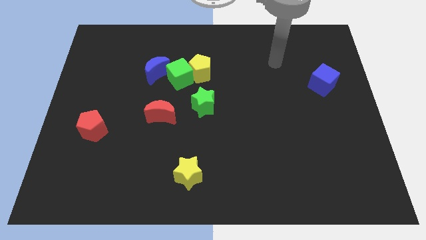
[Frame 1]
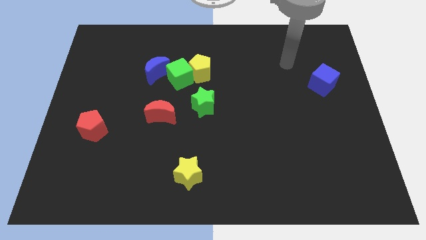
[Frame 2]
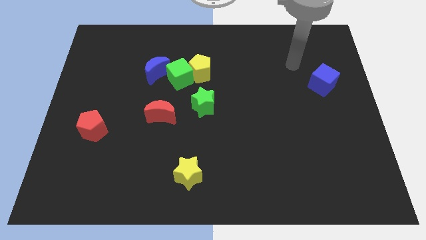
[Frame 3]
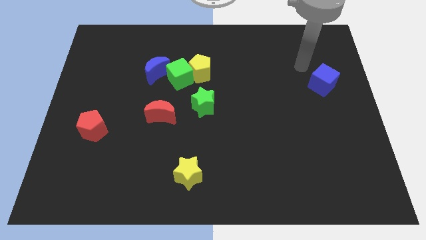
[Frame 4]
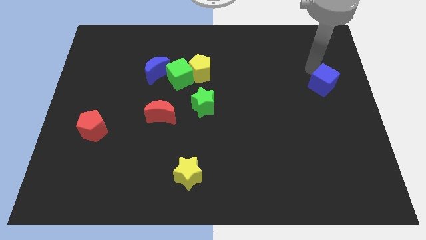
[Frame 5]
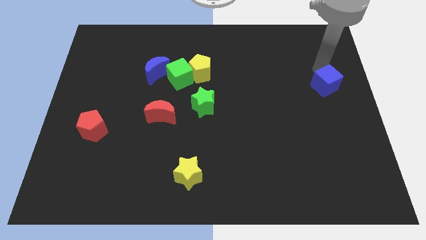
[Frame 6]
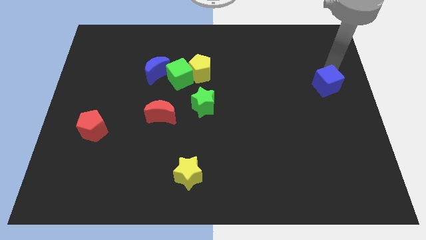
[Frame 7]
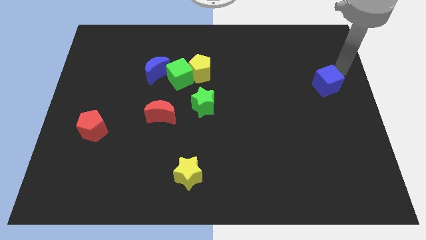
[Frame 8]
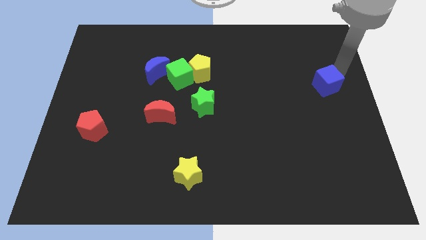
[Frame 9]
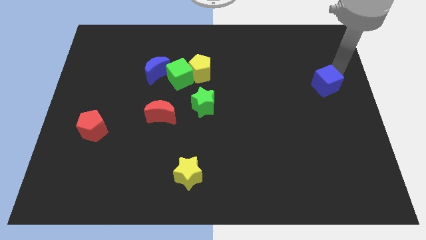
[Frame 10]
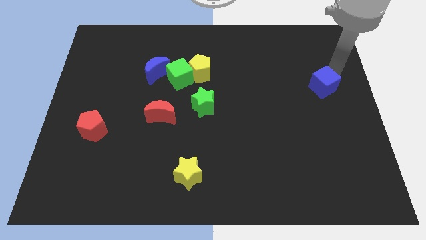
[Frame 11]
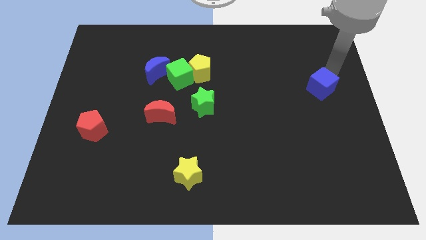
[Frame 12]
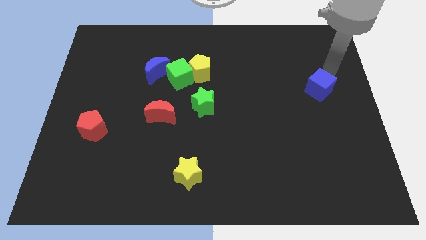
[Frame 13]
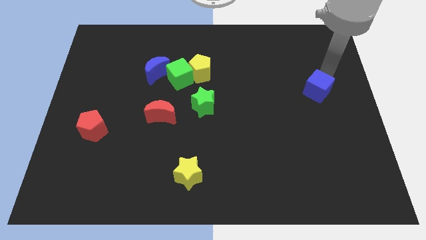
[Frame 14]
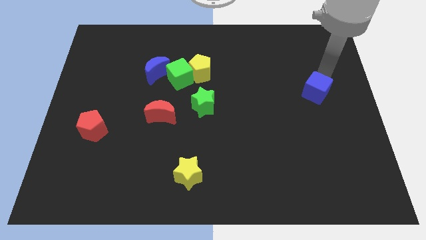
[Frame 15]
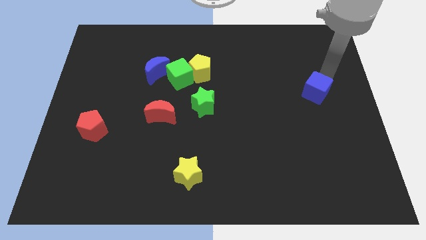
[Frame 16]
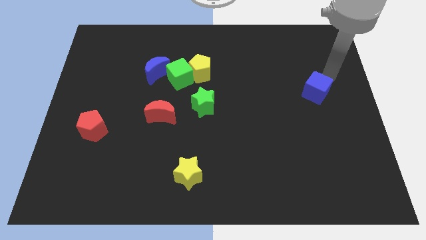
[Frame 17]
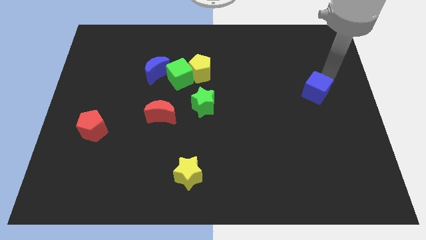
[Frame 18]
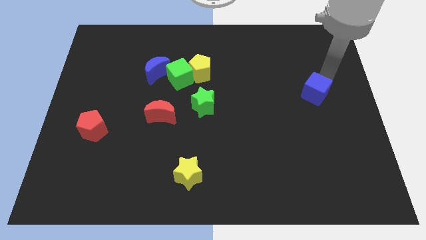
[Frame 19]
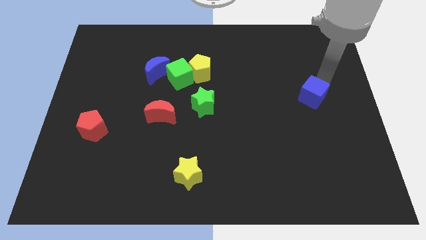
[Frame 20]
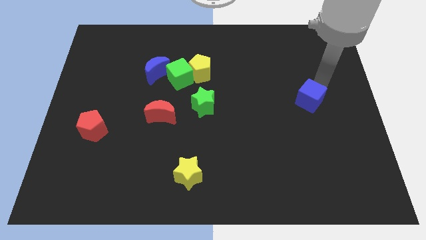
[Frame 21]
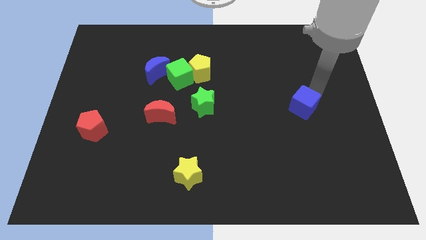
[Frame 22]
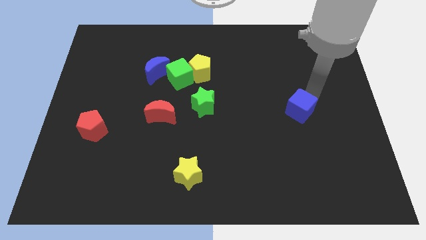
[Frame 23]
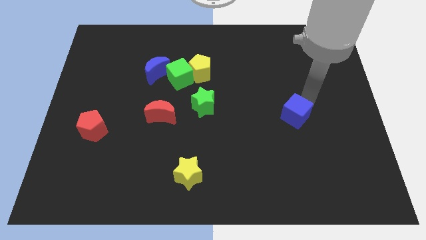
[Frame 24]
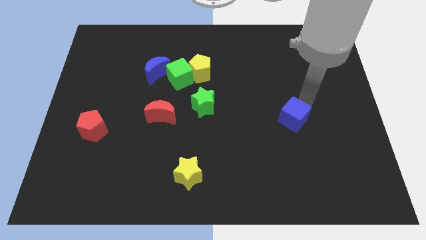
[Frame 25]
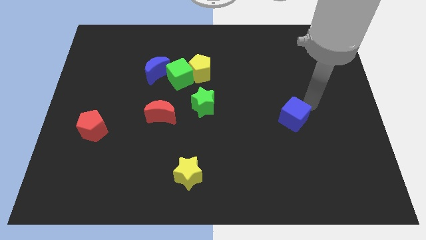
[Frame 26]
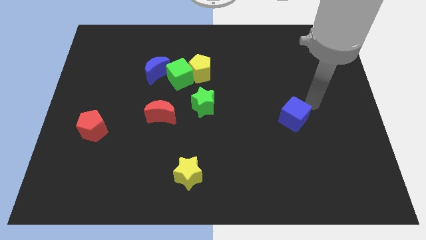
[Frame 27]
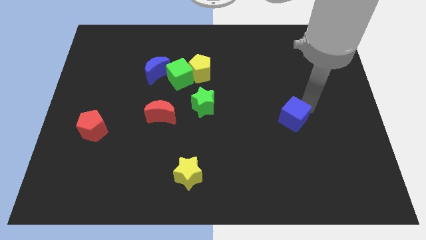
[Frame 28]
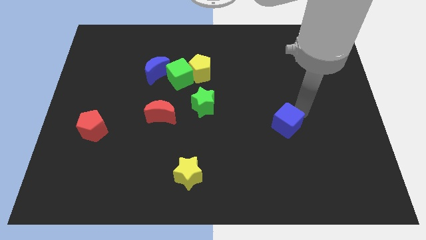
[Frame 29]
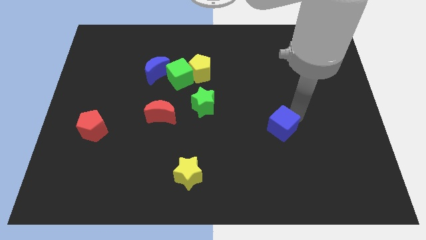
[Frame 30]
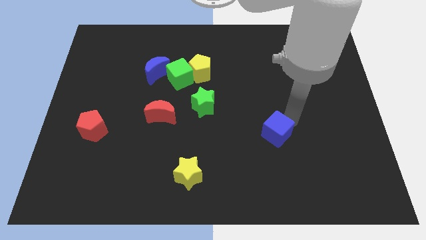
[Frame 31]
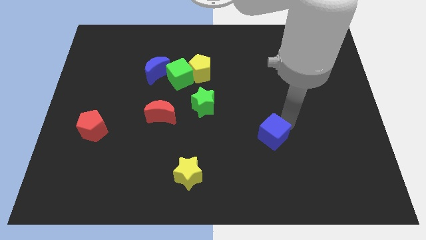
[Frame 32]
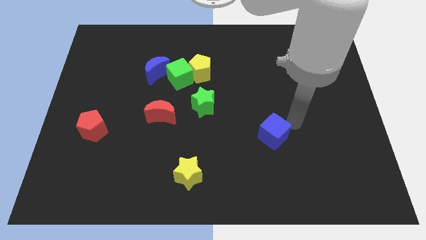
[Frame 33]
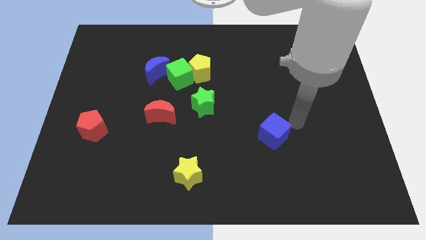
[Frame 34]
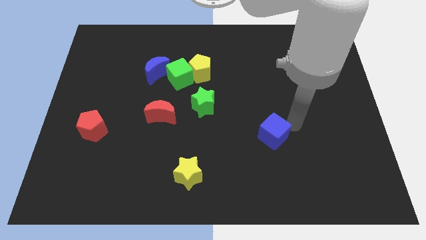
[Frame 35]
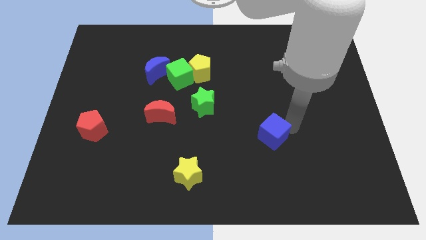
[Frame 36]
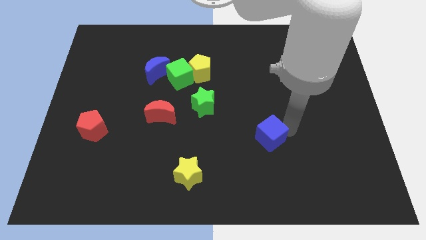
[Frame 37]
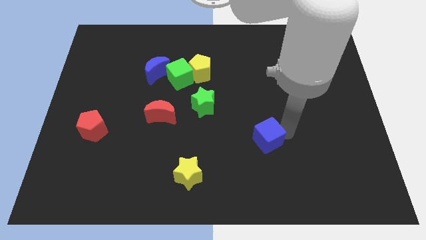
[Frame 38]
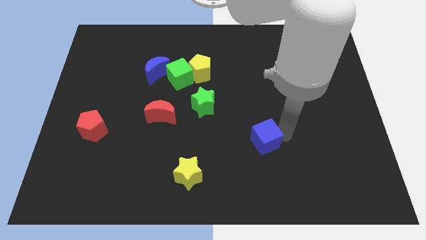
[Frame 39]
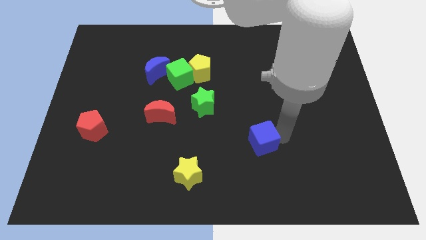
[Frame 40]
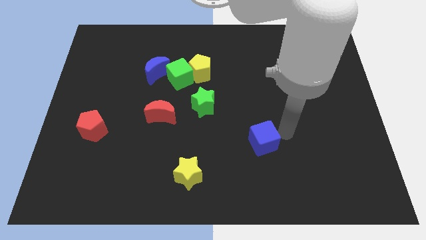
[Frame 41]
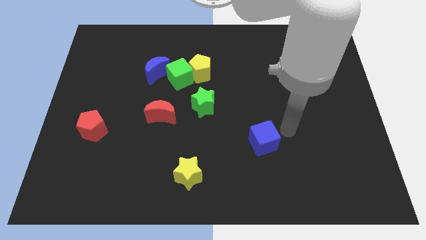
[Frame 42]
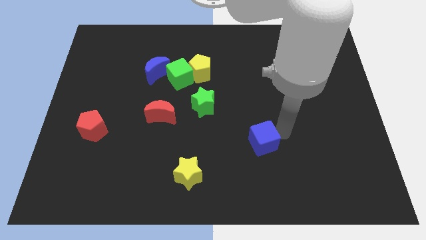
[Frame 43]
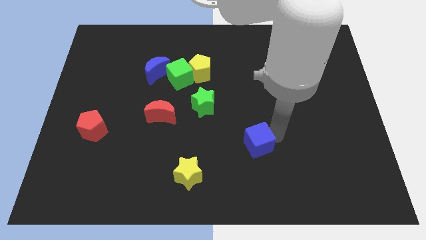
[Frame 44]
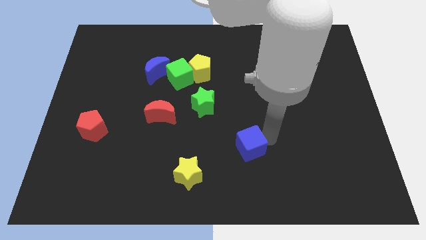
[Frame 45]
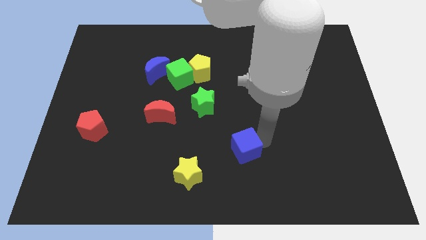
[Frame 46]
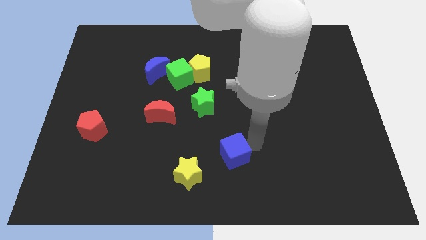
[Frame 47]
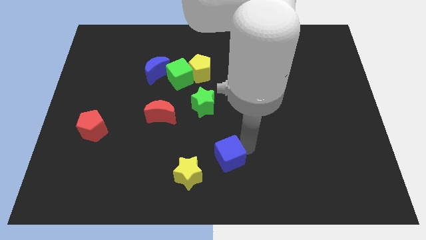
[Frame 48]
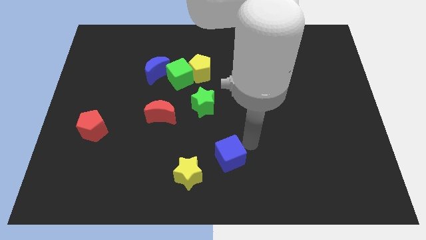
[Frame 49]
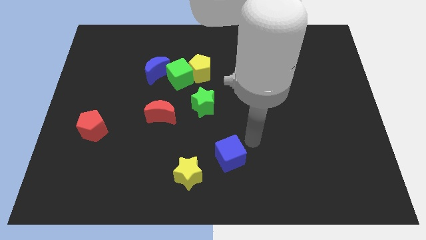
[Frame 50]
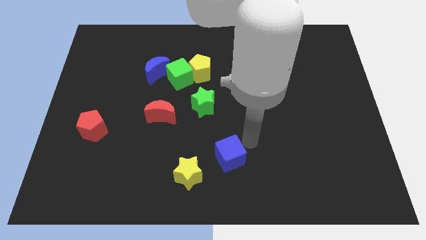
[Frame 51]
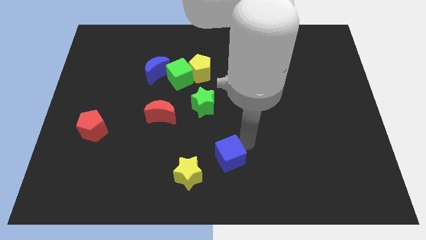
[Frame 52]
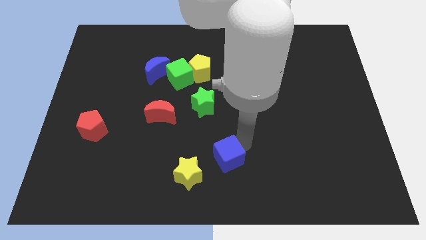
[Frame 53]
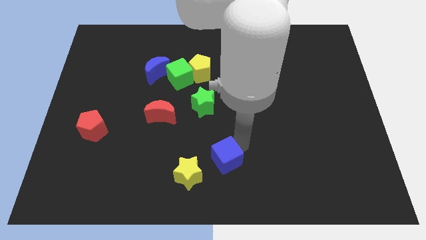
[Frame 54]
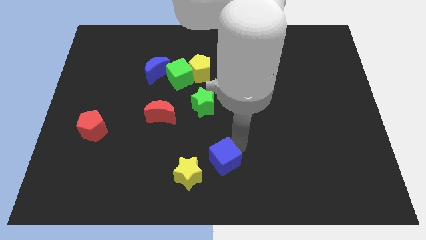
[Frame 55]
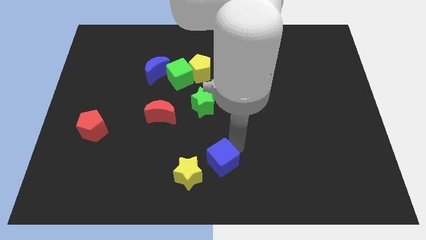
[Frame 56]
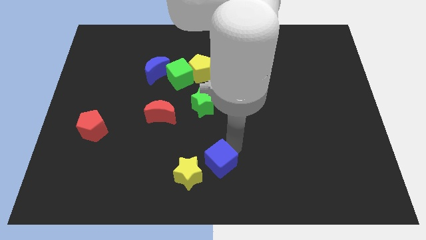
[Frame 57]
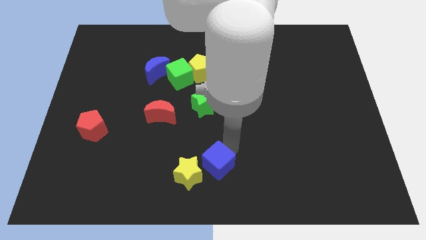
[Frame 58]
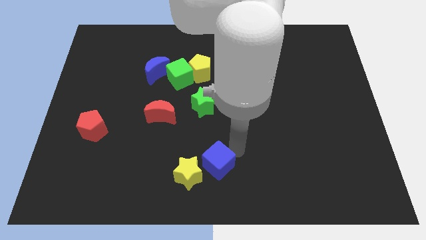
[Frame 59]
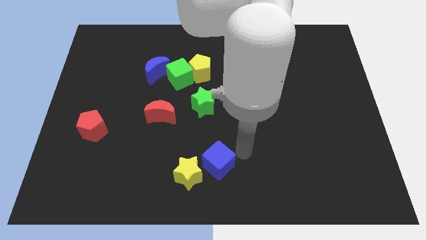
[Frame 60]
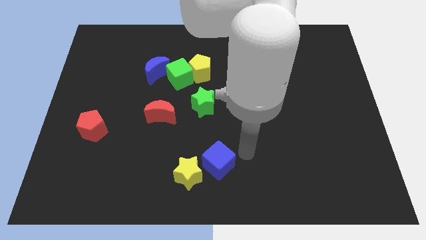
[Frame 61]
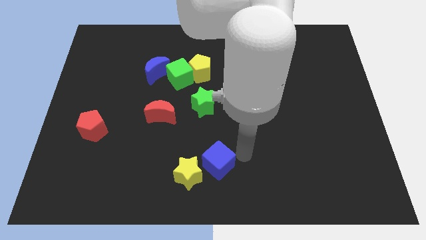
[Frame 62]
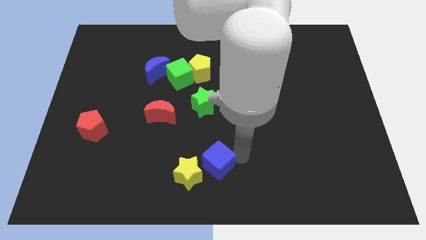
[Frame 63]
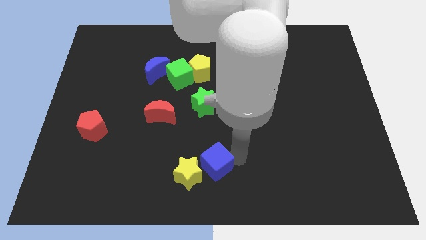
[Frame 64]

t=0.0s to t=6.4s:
move the blue cube close to the yellow star
